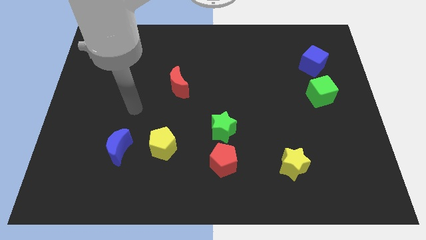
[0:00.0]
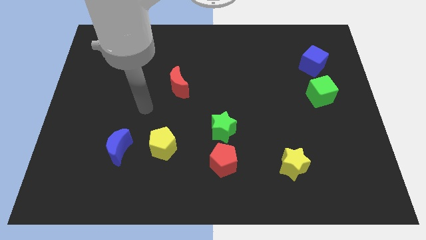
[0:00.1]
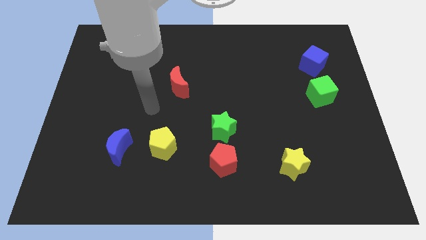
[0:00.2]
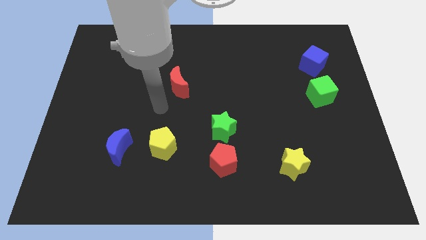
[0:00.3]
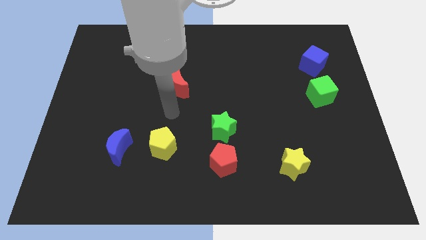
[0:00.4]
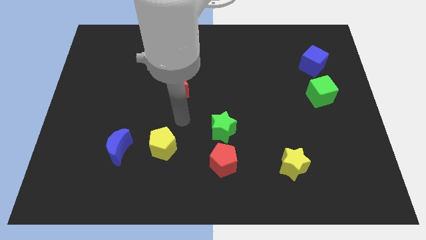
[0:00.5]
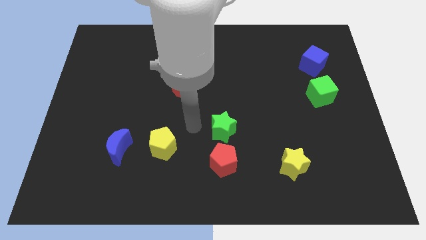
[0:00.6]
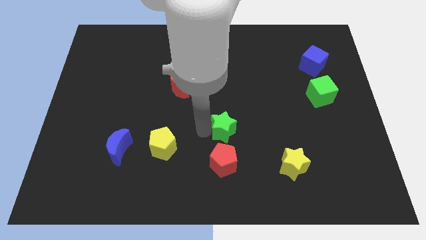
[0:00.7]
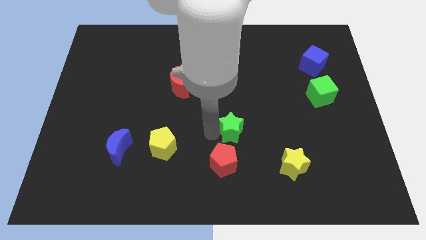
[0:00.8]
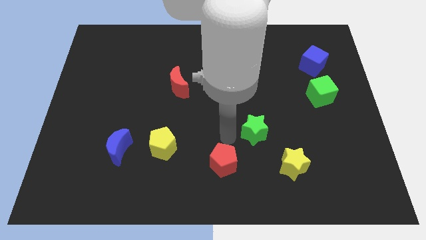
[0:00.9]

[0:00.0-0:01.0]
move the red pentagon away from the green star

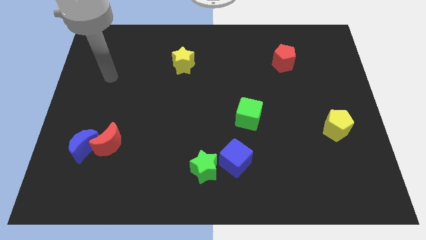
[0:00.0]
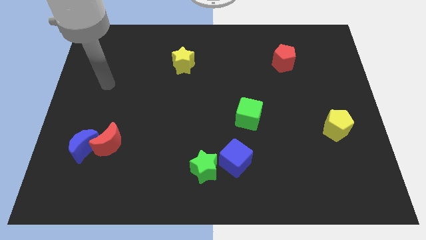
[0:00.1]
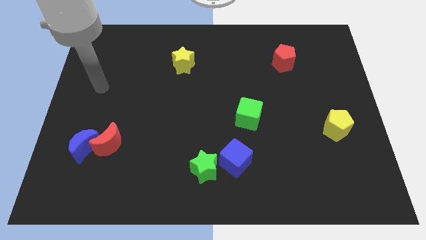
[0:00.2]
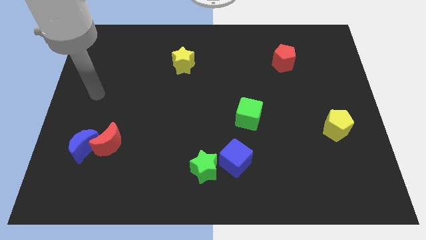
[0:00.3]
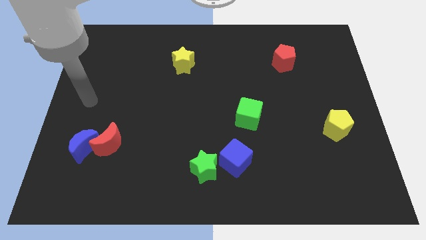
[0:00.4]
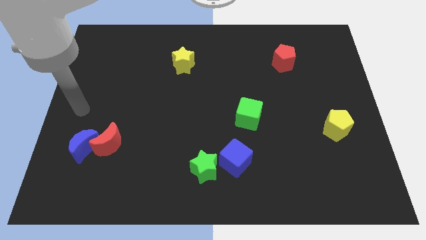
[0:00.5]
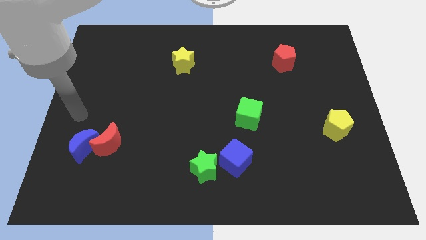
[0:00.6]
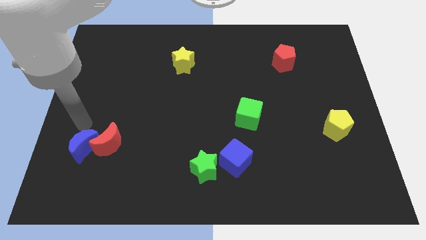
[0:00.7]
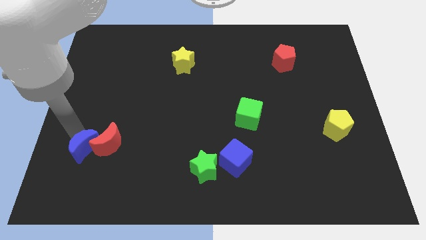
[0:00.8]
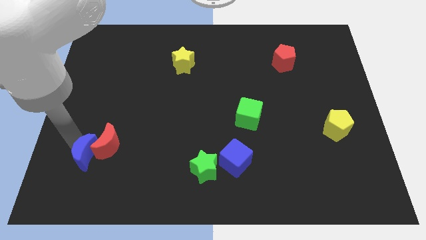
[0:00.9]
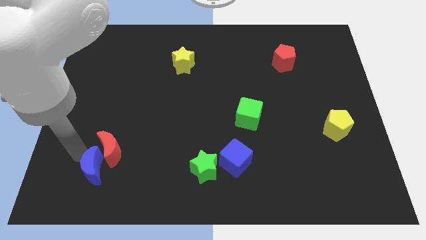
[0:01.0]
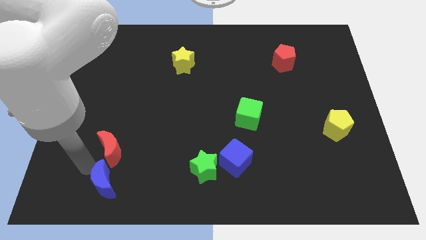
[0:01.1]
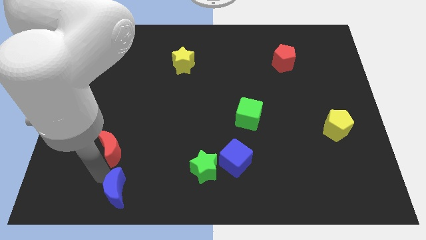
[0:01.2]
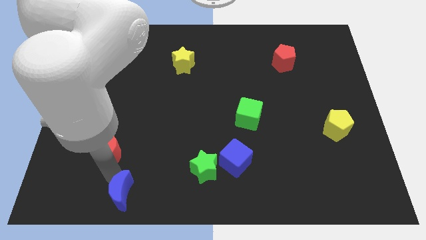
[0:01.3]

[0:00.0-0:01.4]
move the red moon away from the blue moon

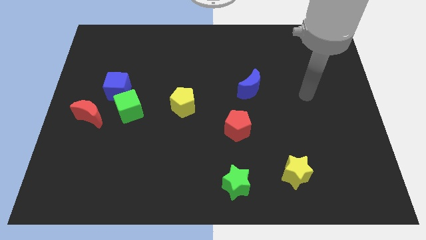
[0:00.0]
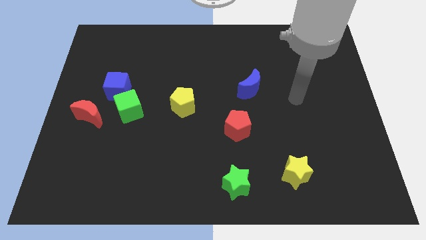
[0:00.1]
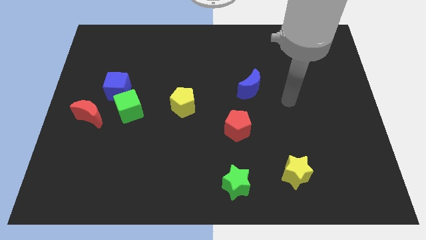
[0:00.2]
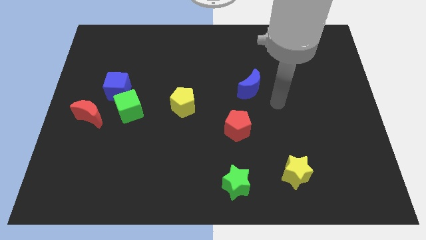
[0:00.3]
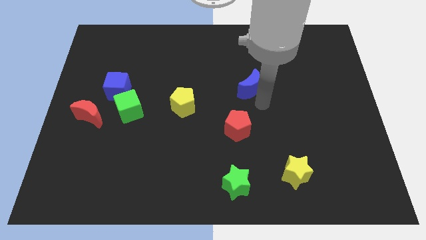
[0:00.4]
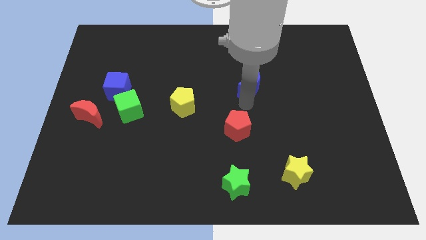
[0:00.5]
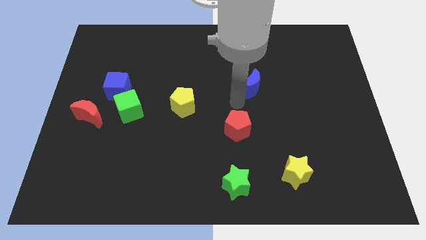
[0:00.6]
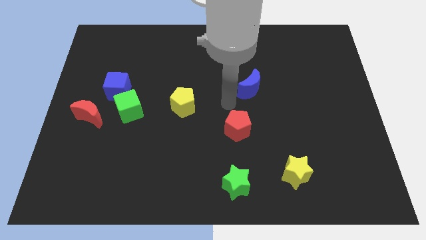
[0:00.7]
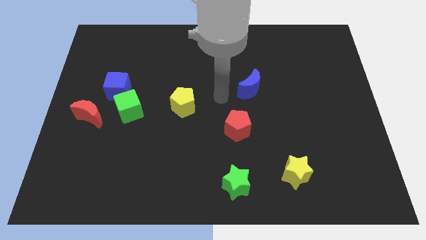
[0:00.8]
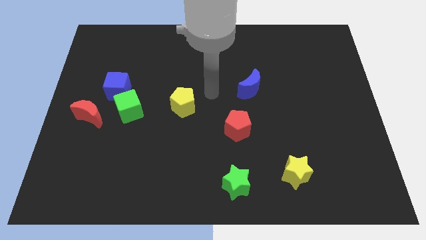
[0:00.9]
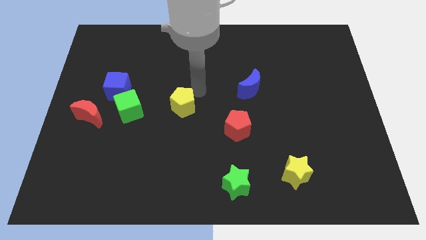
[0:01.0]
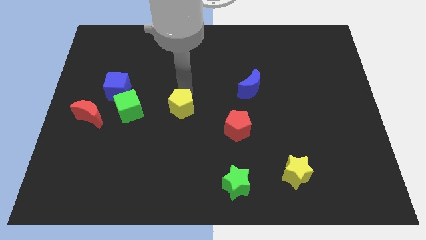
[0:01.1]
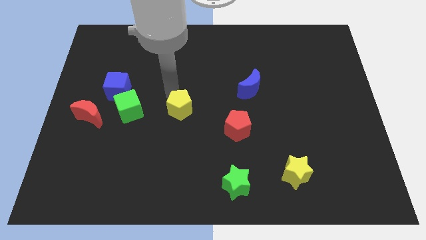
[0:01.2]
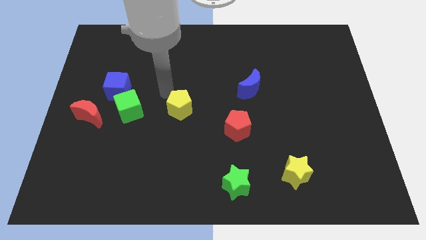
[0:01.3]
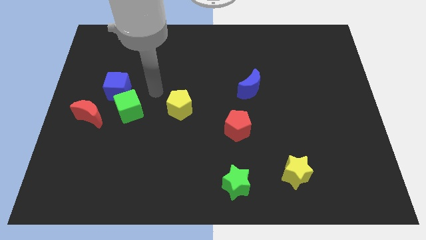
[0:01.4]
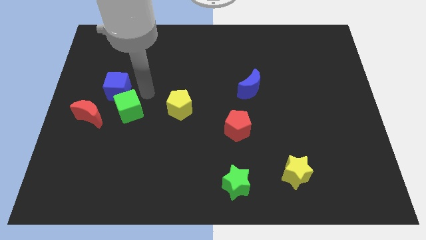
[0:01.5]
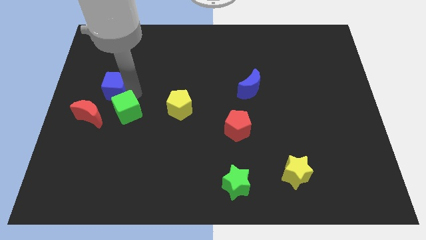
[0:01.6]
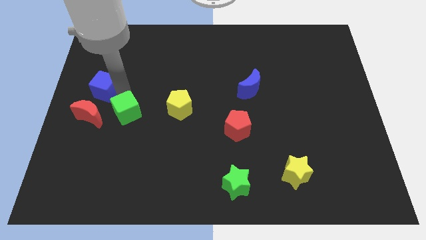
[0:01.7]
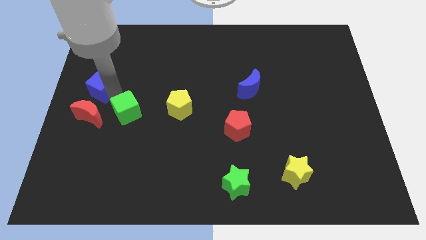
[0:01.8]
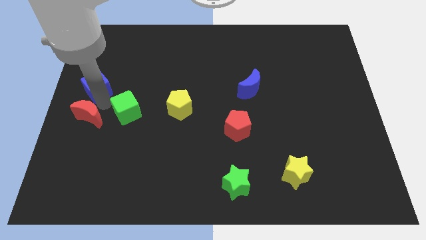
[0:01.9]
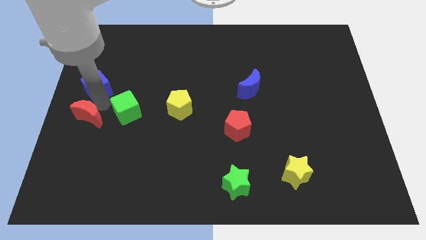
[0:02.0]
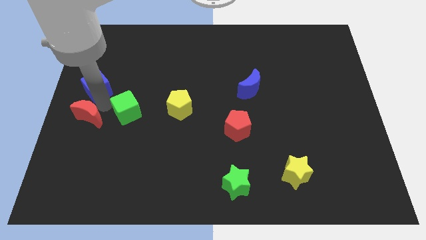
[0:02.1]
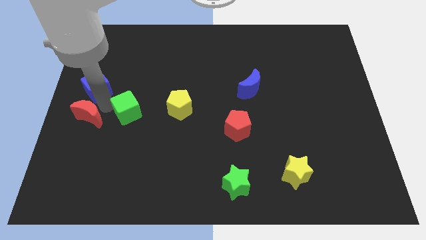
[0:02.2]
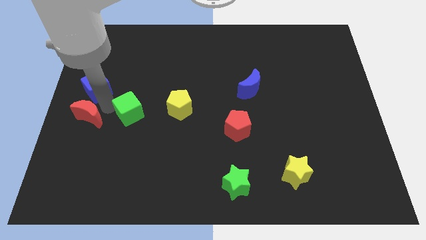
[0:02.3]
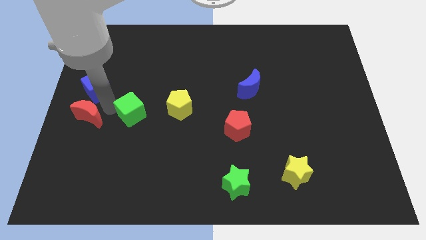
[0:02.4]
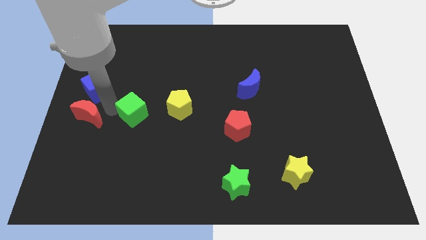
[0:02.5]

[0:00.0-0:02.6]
move the green cube away from the blue cube and red moon

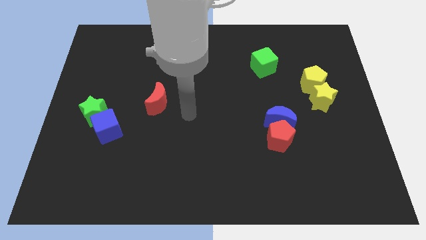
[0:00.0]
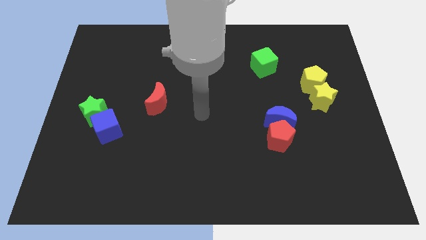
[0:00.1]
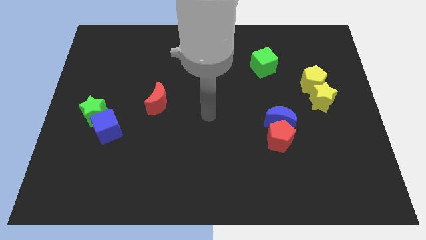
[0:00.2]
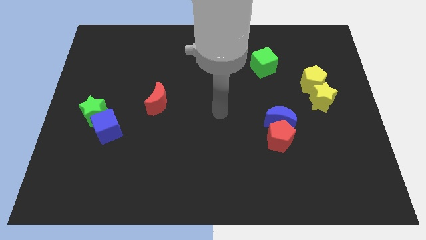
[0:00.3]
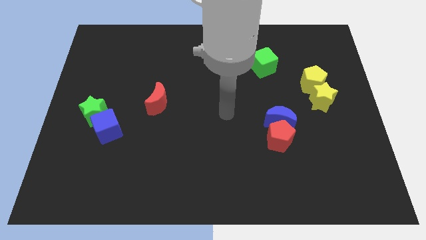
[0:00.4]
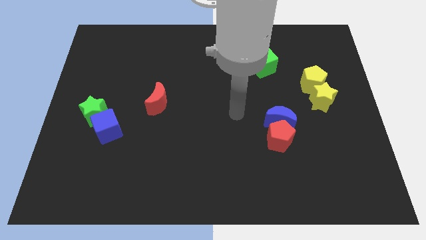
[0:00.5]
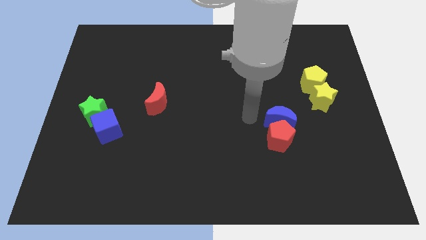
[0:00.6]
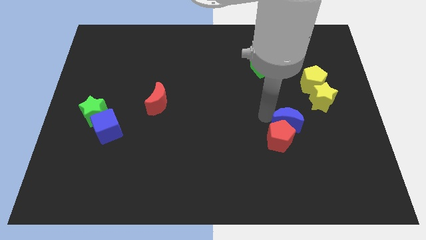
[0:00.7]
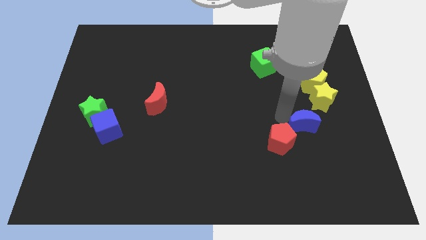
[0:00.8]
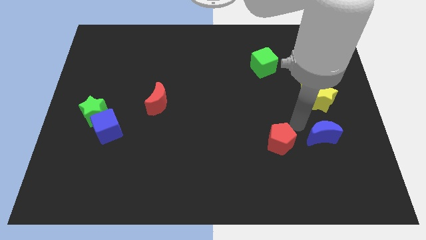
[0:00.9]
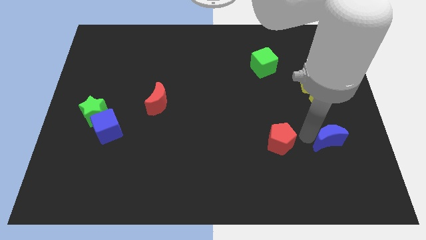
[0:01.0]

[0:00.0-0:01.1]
pull the red pentagon apart from the blue moon

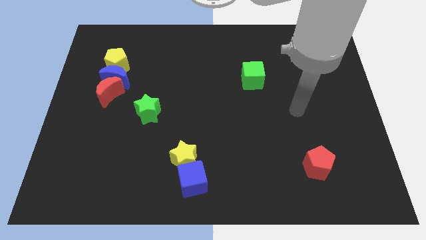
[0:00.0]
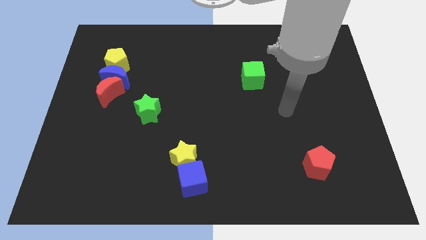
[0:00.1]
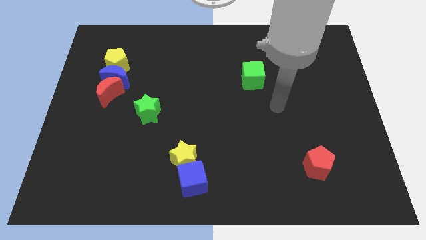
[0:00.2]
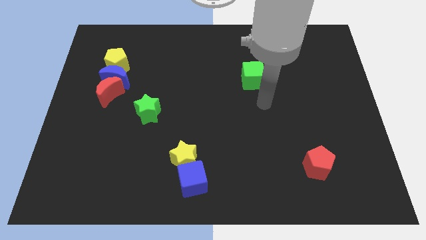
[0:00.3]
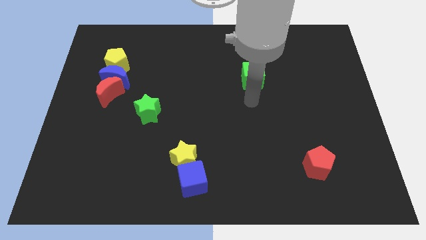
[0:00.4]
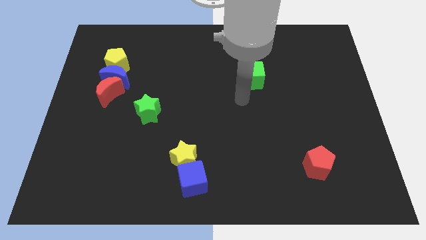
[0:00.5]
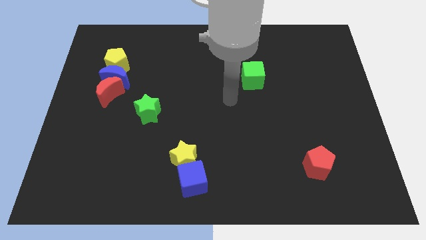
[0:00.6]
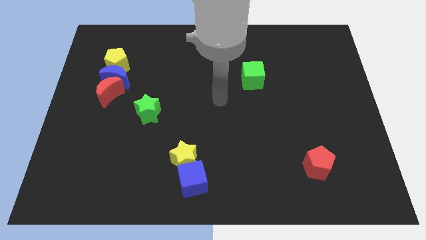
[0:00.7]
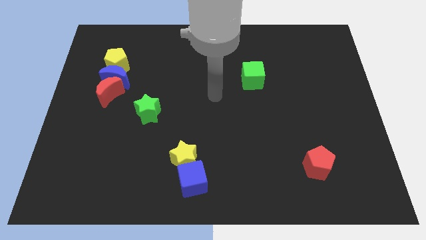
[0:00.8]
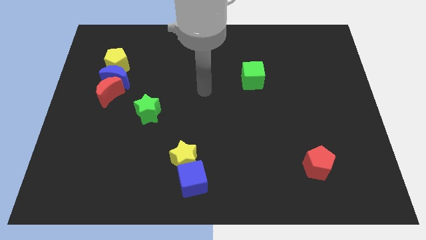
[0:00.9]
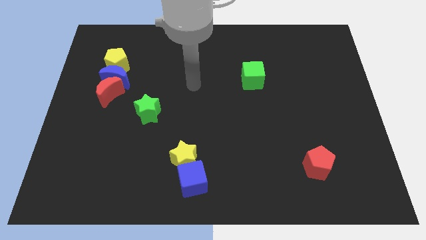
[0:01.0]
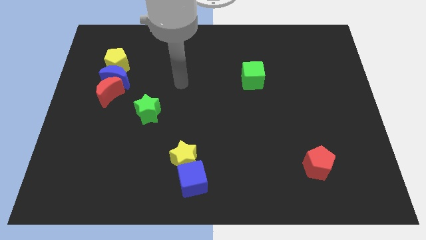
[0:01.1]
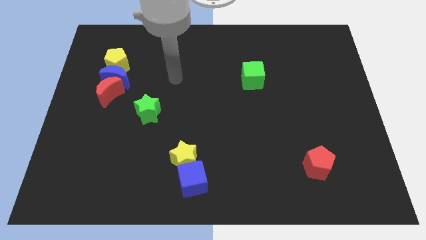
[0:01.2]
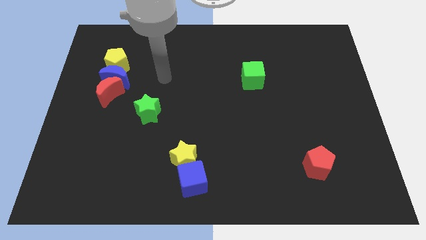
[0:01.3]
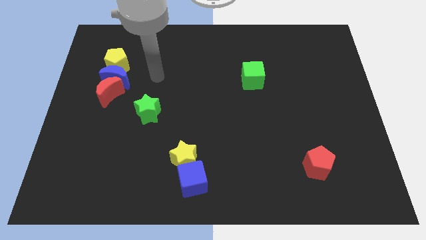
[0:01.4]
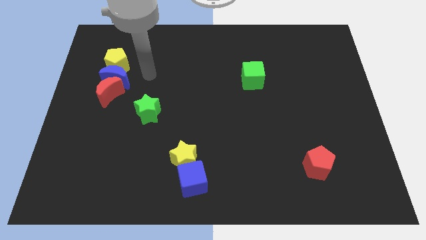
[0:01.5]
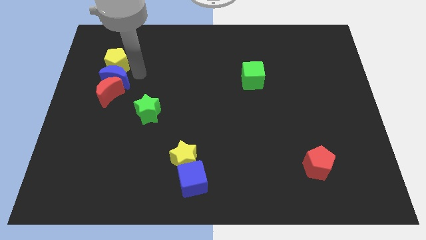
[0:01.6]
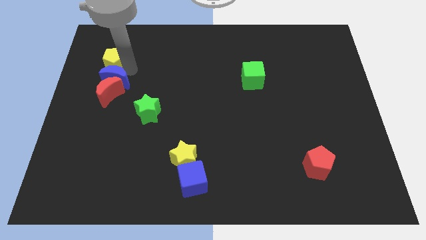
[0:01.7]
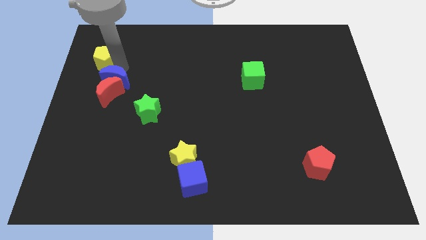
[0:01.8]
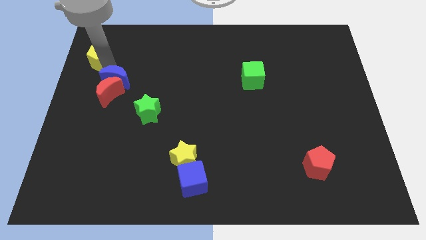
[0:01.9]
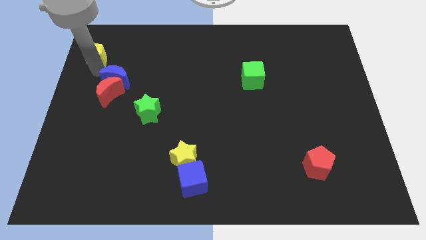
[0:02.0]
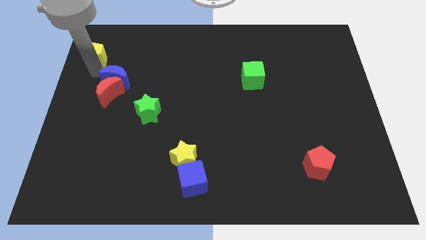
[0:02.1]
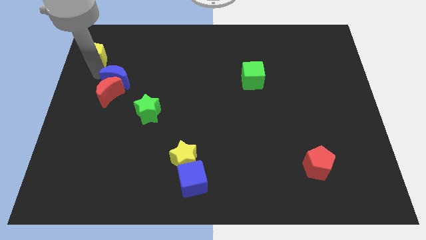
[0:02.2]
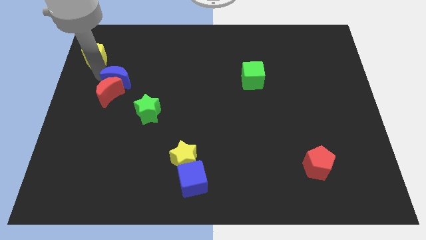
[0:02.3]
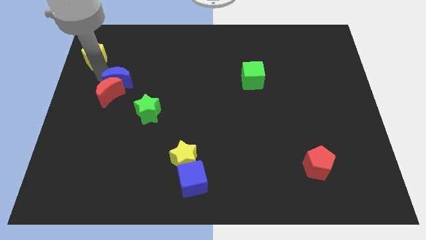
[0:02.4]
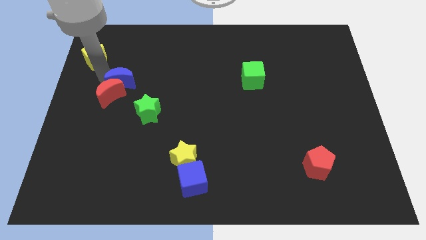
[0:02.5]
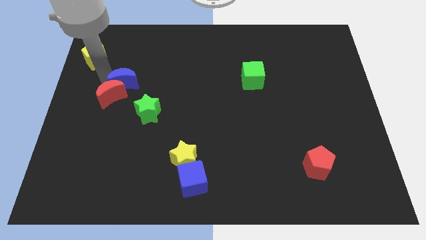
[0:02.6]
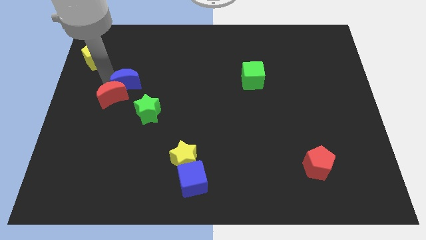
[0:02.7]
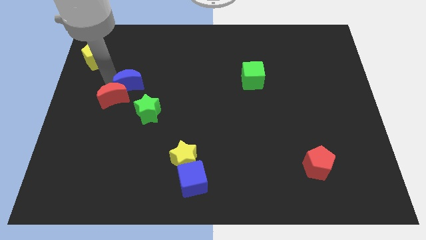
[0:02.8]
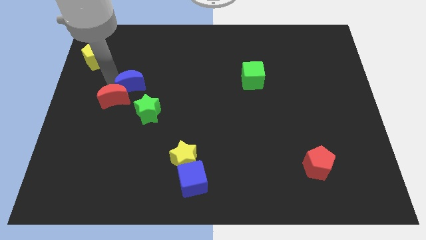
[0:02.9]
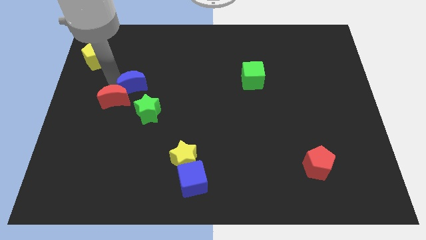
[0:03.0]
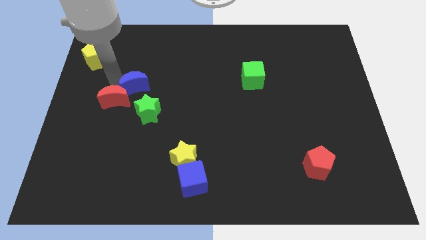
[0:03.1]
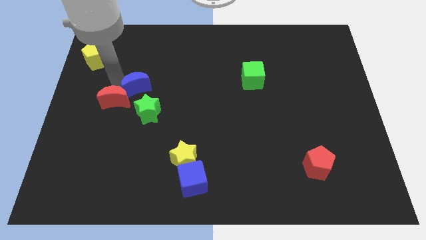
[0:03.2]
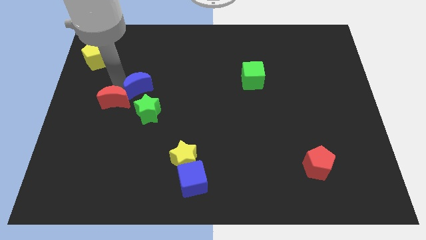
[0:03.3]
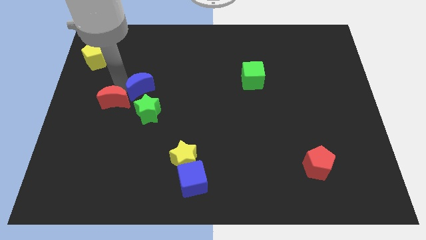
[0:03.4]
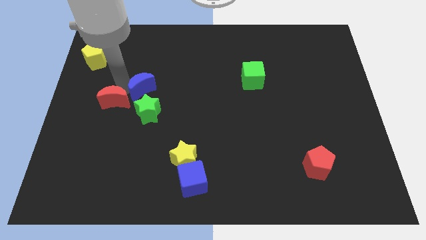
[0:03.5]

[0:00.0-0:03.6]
separate the blue moon from the red moon and yellow pentagon
